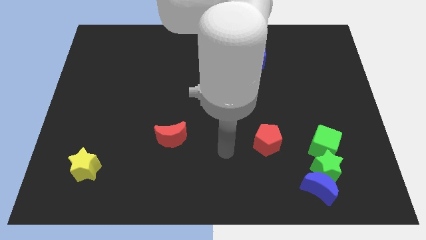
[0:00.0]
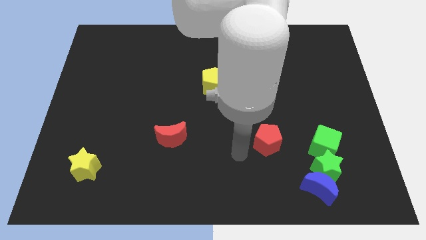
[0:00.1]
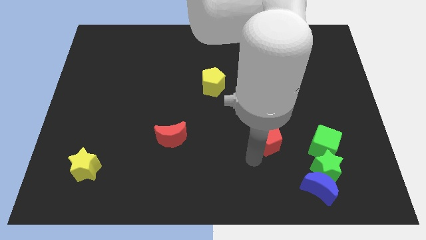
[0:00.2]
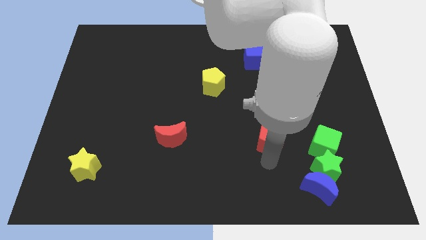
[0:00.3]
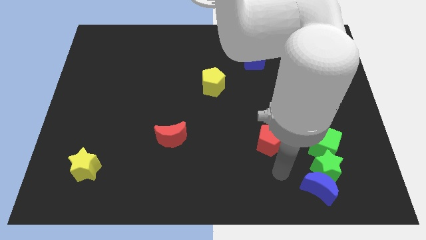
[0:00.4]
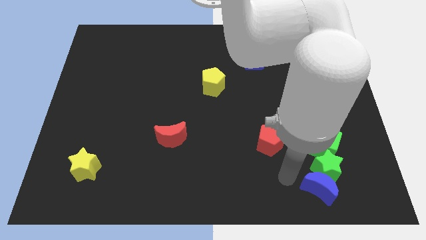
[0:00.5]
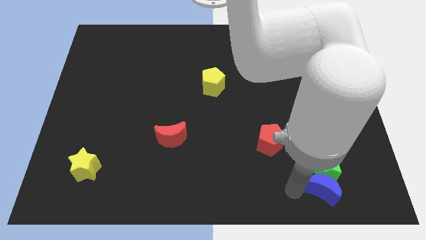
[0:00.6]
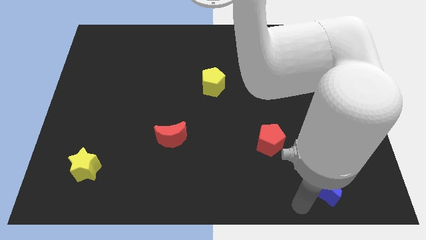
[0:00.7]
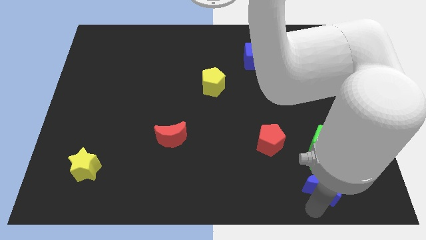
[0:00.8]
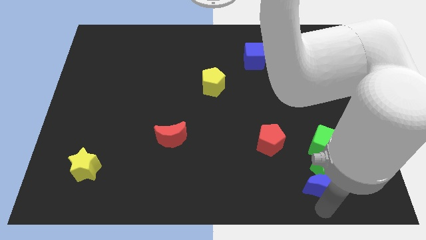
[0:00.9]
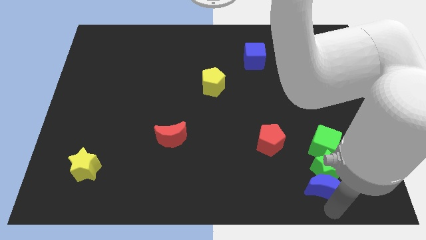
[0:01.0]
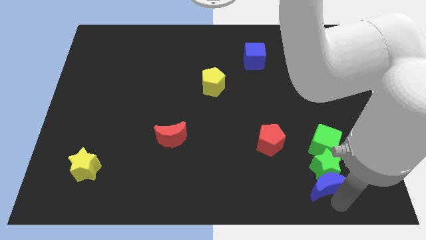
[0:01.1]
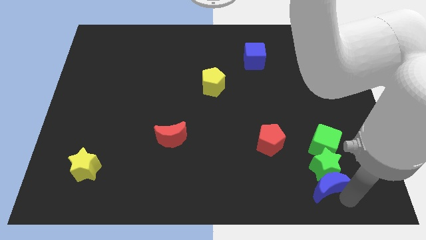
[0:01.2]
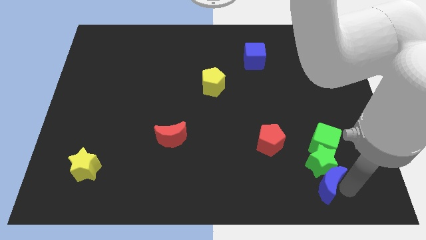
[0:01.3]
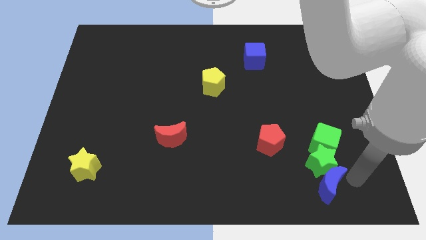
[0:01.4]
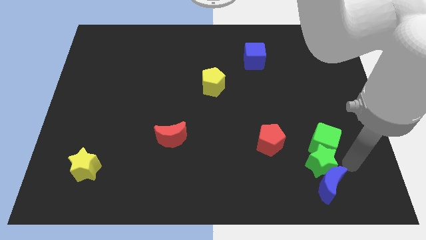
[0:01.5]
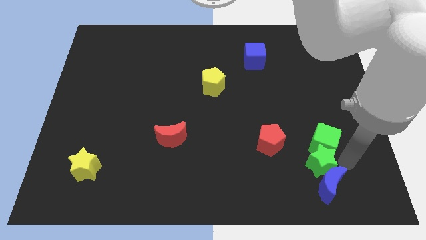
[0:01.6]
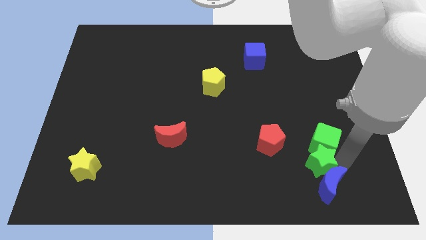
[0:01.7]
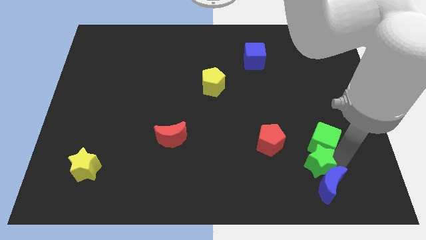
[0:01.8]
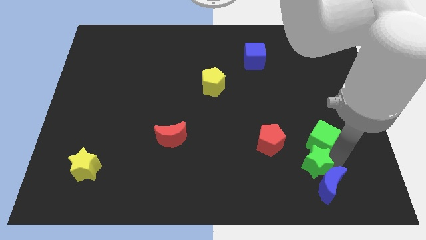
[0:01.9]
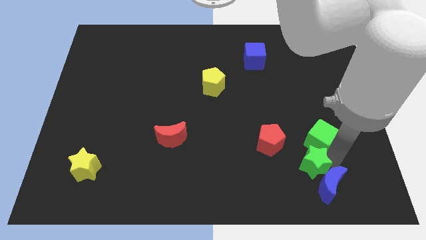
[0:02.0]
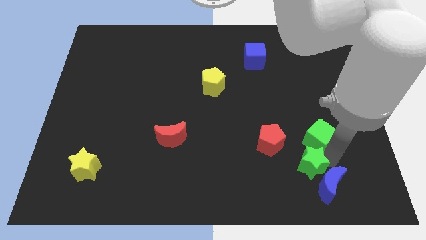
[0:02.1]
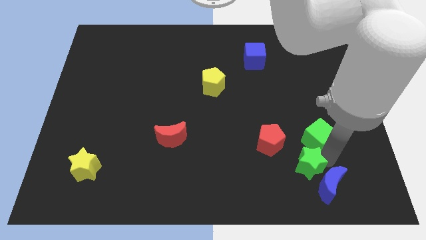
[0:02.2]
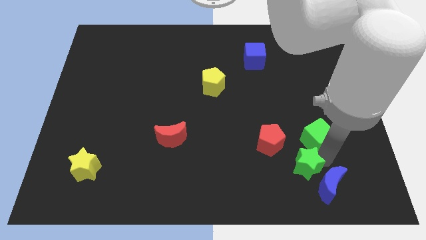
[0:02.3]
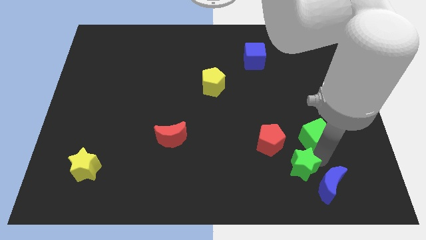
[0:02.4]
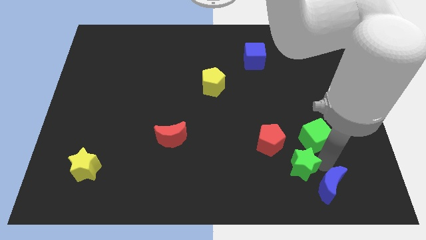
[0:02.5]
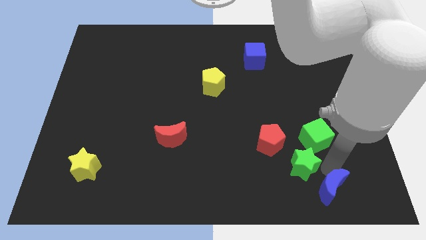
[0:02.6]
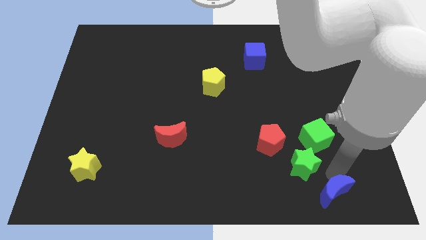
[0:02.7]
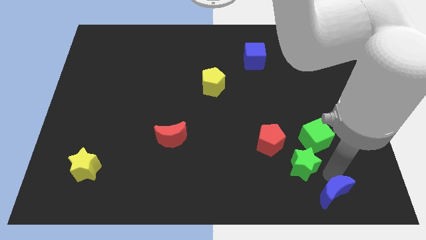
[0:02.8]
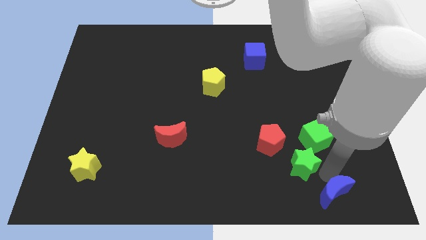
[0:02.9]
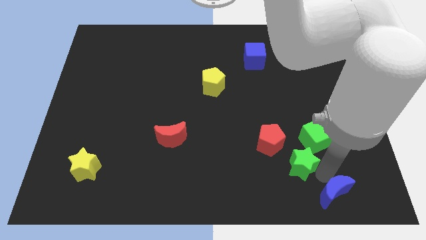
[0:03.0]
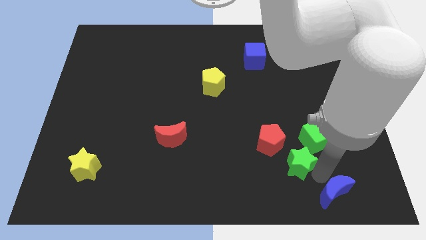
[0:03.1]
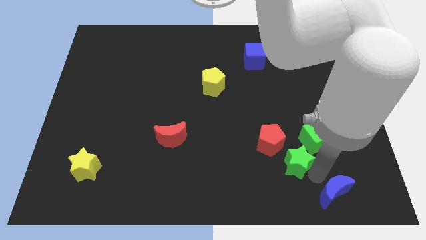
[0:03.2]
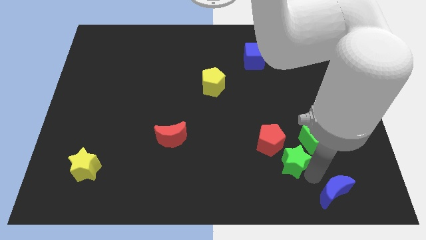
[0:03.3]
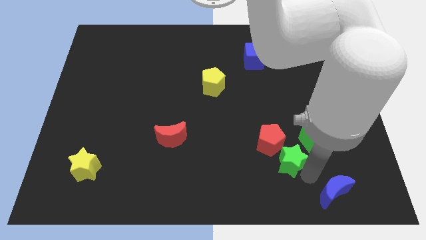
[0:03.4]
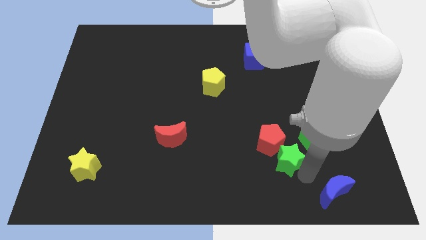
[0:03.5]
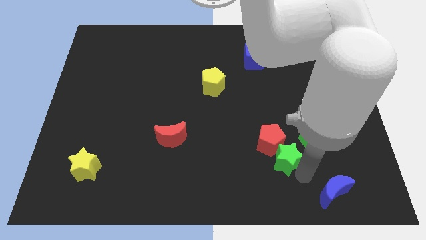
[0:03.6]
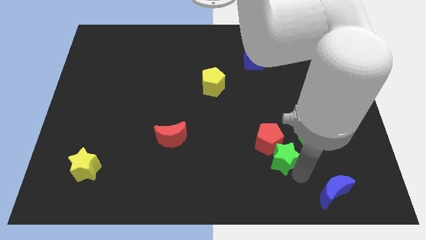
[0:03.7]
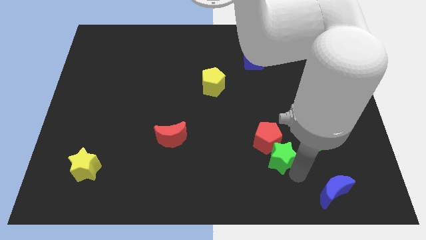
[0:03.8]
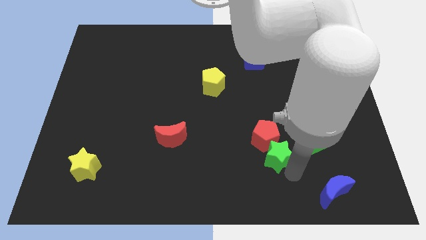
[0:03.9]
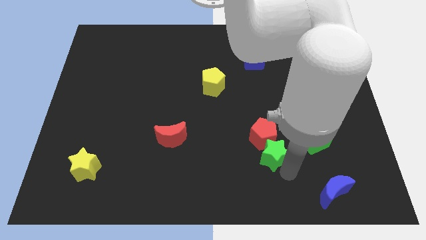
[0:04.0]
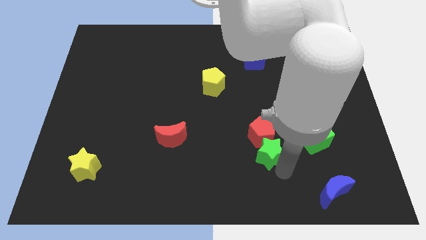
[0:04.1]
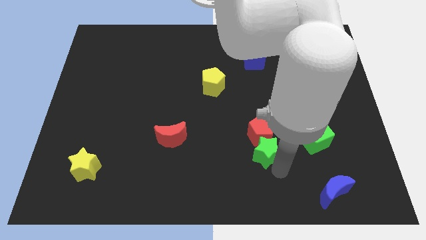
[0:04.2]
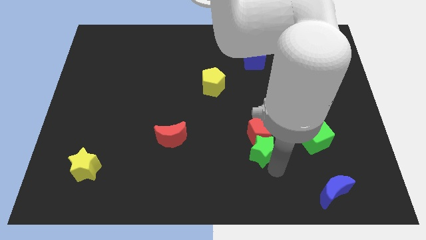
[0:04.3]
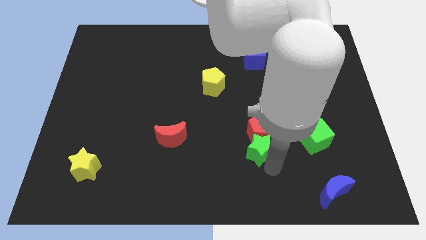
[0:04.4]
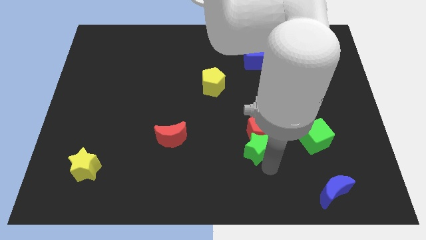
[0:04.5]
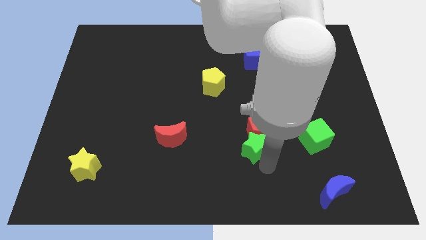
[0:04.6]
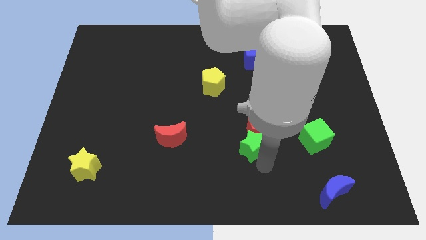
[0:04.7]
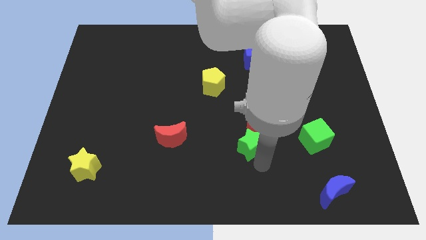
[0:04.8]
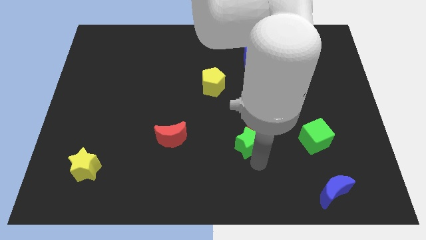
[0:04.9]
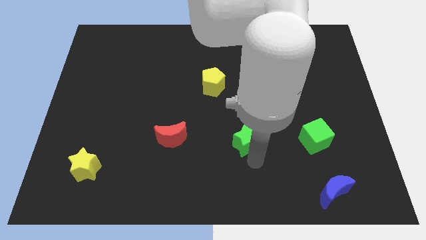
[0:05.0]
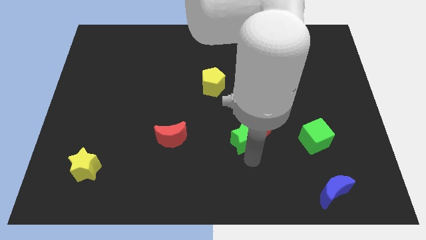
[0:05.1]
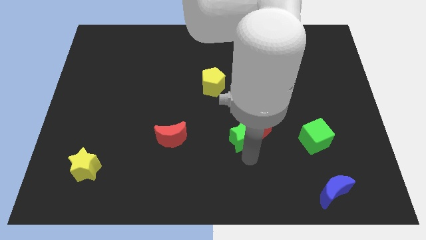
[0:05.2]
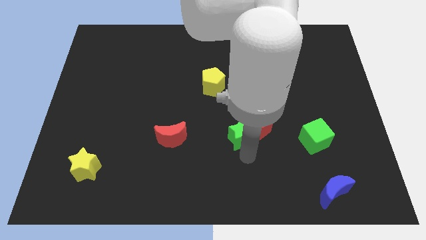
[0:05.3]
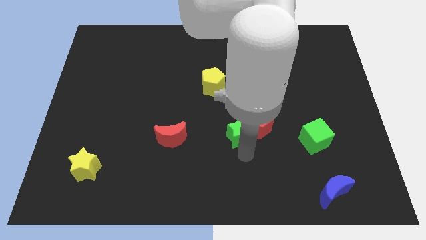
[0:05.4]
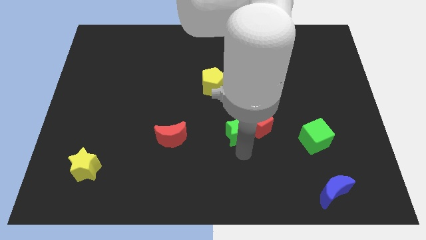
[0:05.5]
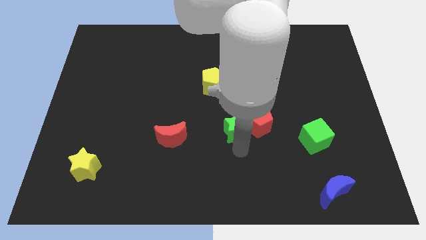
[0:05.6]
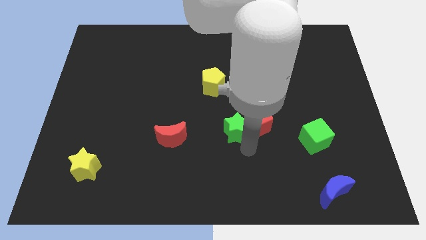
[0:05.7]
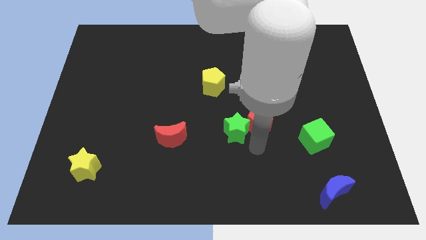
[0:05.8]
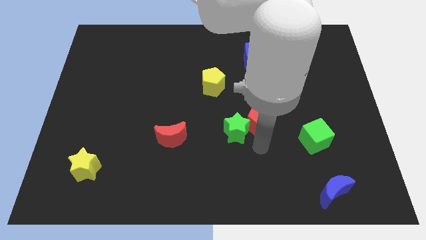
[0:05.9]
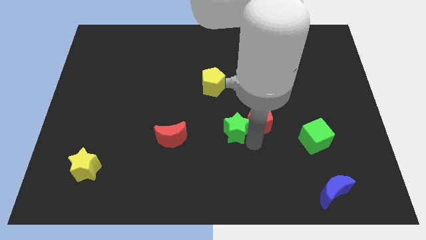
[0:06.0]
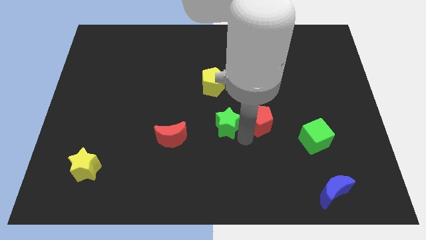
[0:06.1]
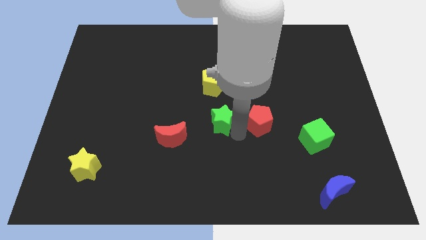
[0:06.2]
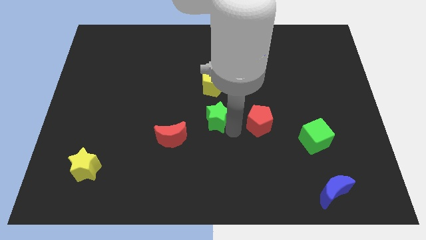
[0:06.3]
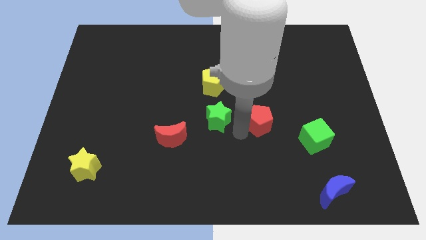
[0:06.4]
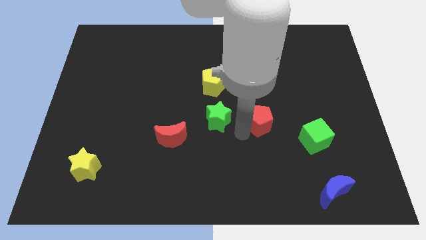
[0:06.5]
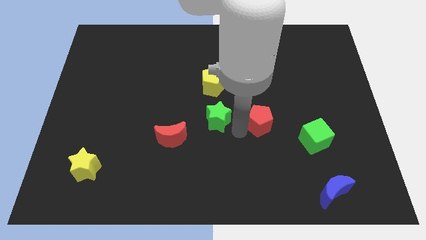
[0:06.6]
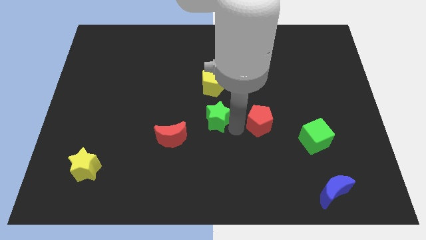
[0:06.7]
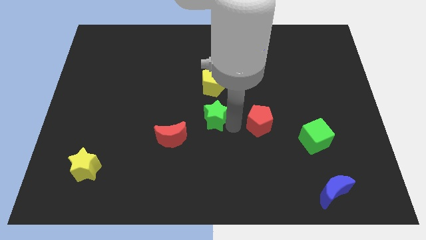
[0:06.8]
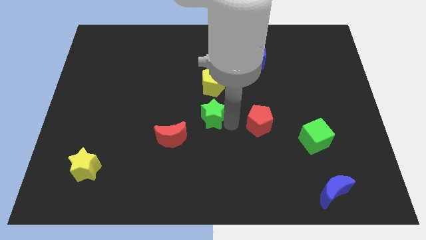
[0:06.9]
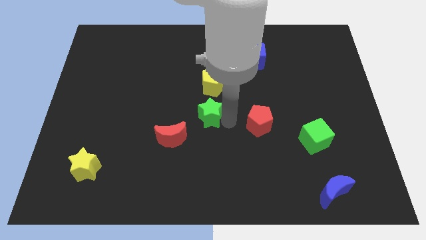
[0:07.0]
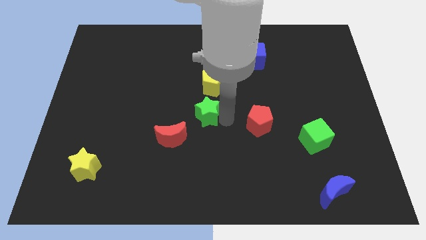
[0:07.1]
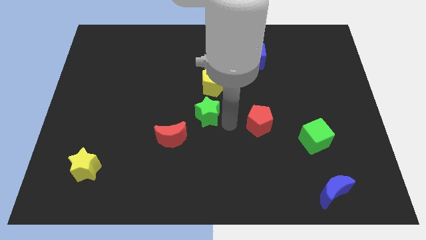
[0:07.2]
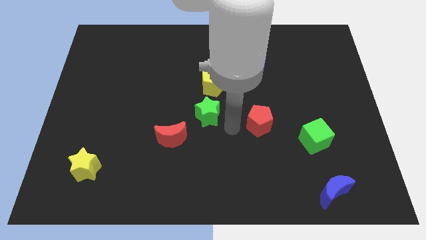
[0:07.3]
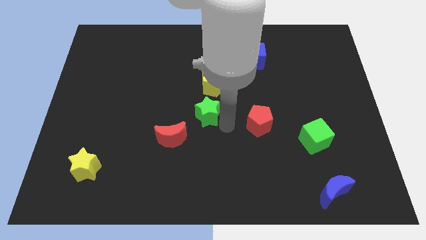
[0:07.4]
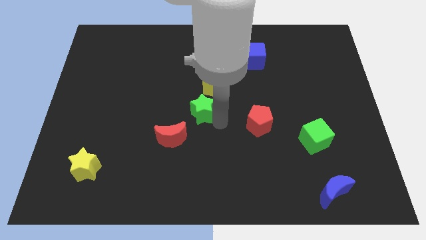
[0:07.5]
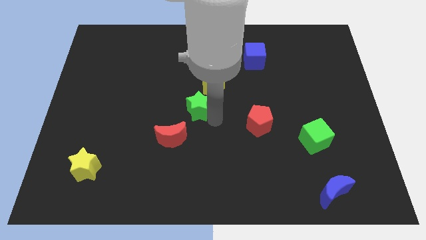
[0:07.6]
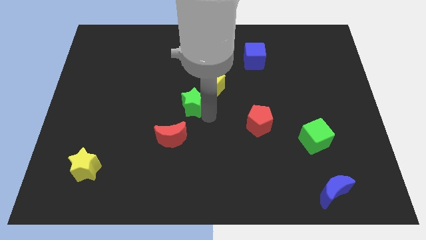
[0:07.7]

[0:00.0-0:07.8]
move the green star above the red moon
